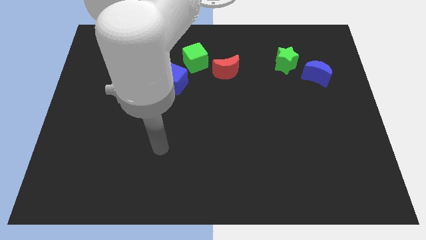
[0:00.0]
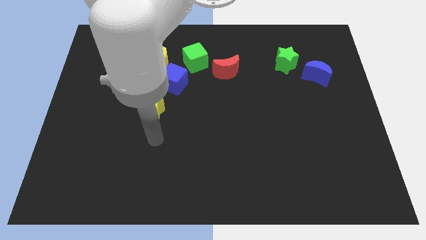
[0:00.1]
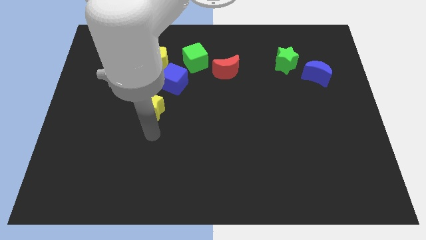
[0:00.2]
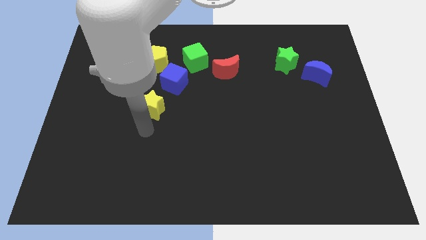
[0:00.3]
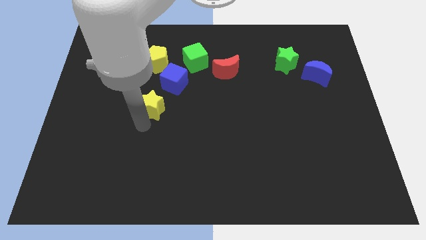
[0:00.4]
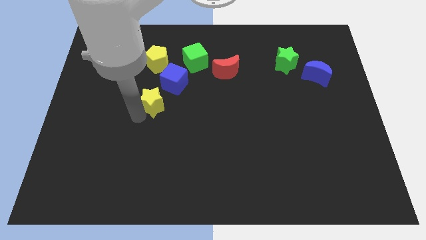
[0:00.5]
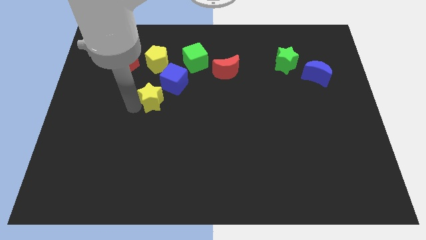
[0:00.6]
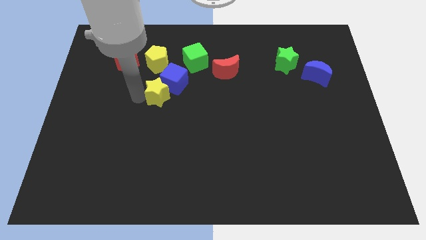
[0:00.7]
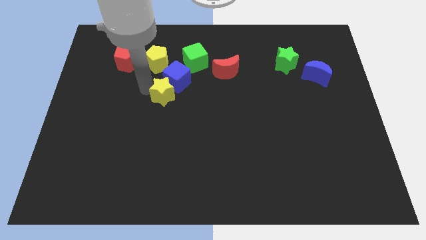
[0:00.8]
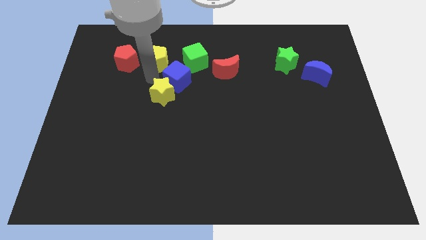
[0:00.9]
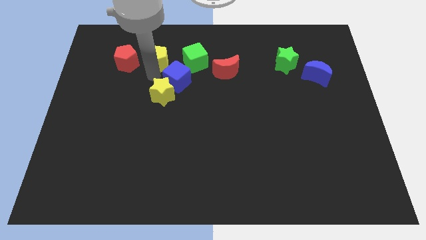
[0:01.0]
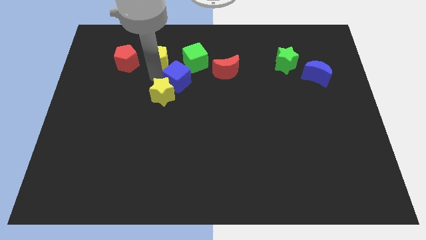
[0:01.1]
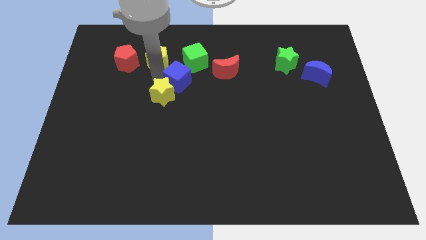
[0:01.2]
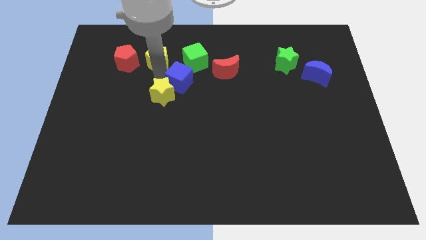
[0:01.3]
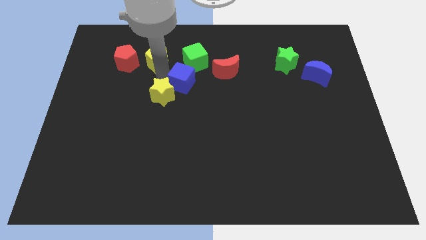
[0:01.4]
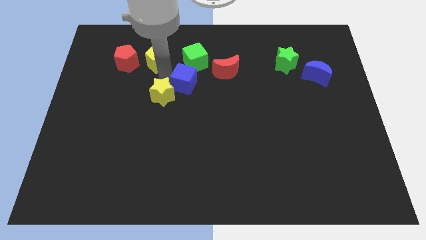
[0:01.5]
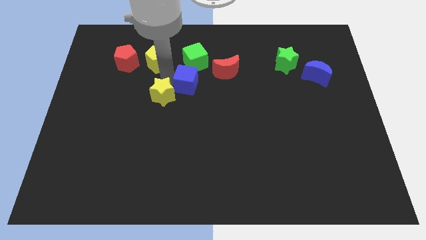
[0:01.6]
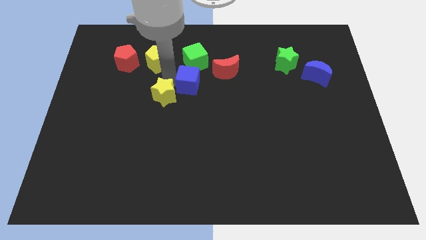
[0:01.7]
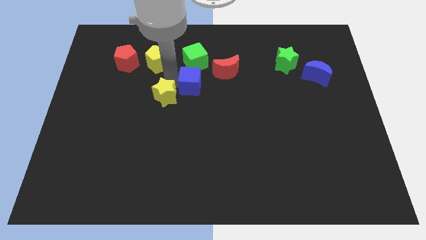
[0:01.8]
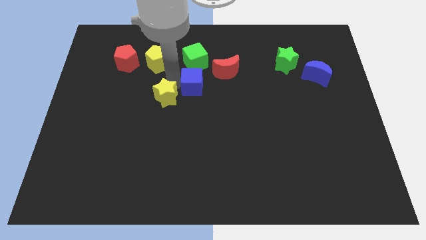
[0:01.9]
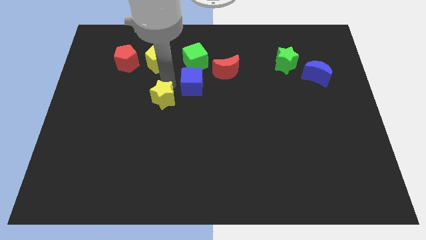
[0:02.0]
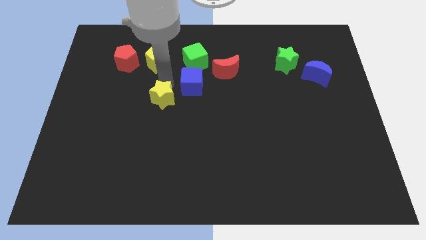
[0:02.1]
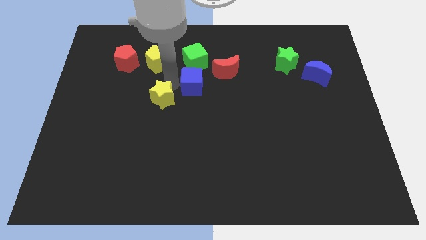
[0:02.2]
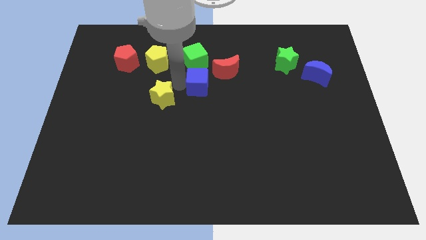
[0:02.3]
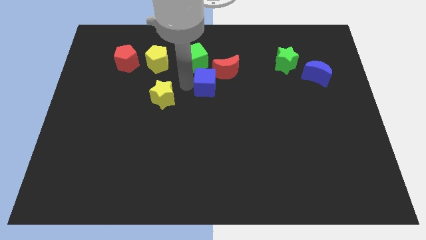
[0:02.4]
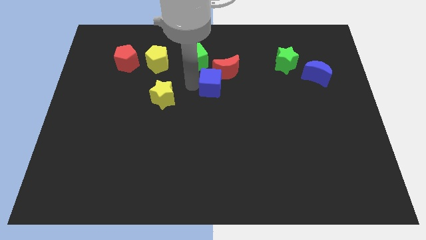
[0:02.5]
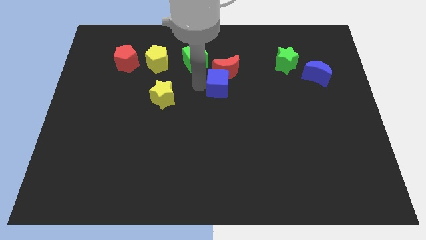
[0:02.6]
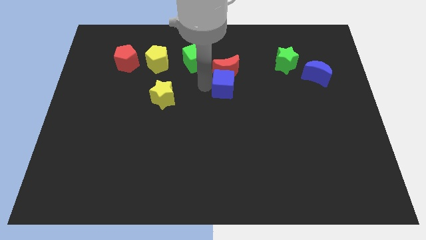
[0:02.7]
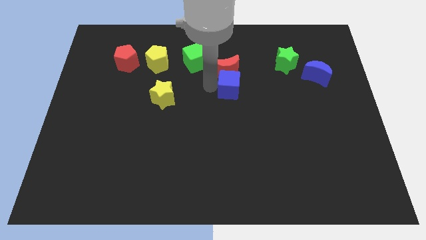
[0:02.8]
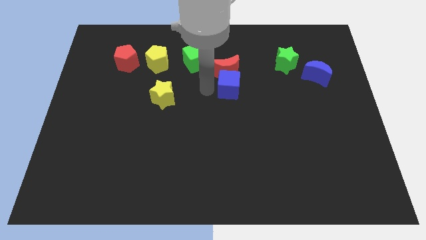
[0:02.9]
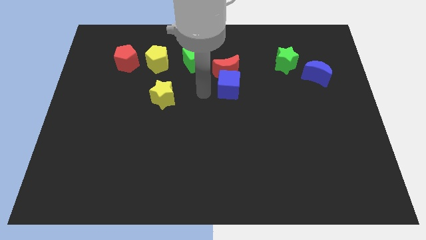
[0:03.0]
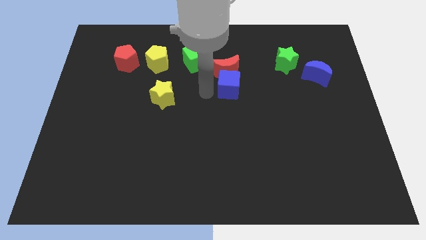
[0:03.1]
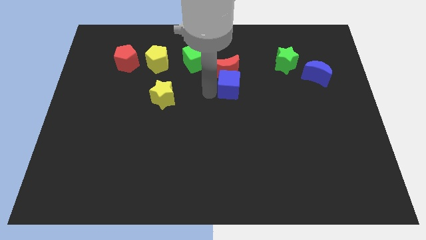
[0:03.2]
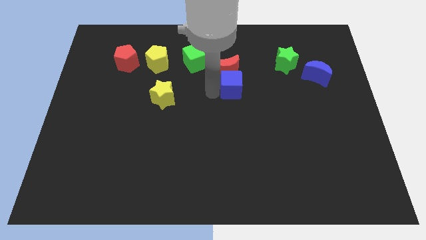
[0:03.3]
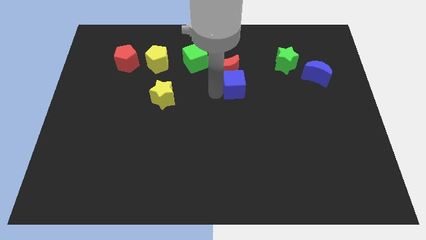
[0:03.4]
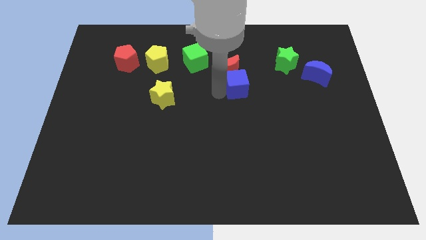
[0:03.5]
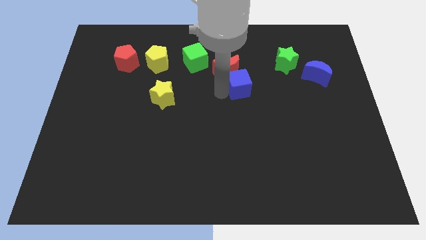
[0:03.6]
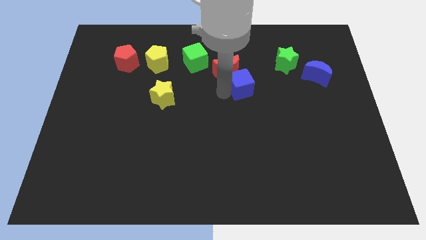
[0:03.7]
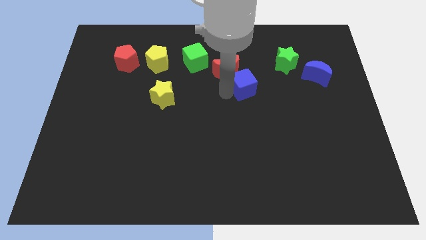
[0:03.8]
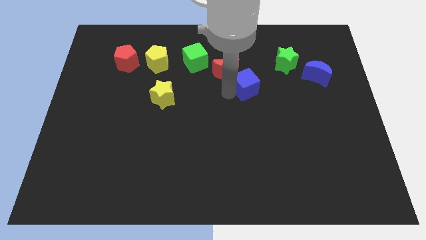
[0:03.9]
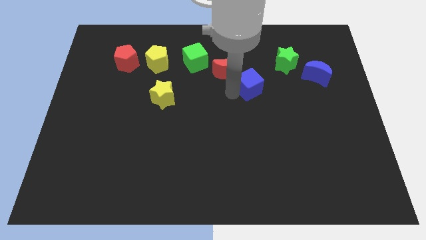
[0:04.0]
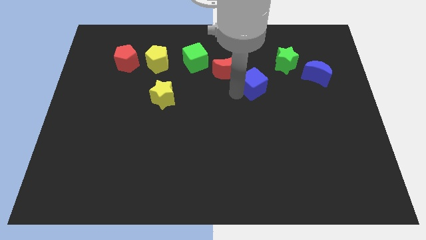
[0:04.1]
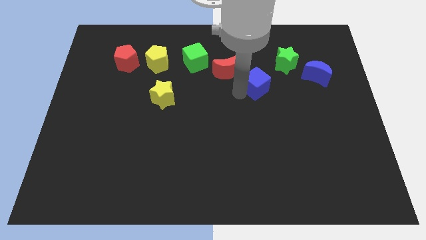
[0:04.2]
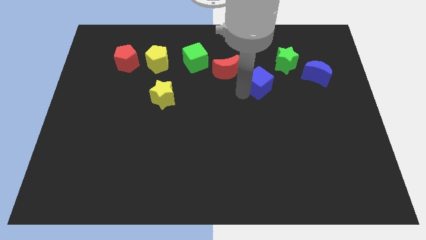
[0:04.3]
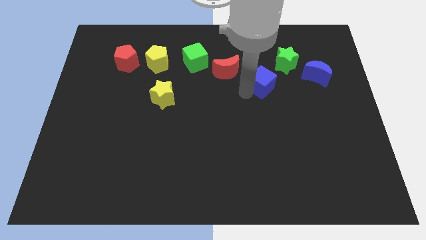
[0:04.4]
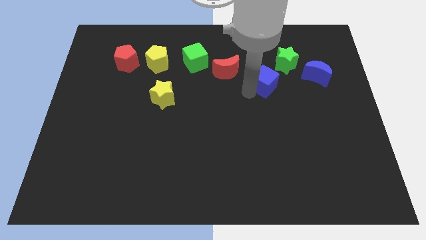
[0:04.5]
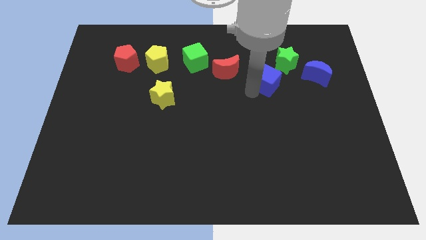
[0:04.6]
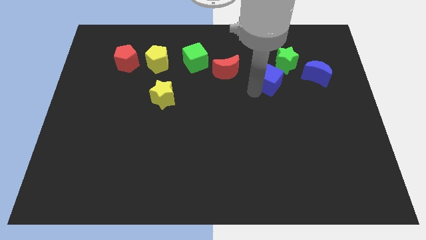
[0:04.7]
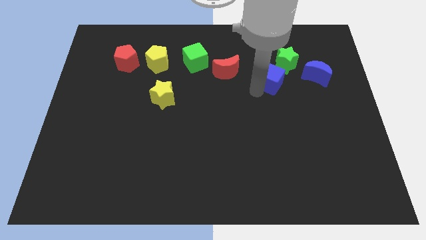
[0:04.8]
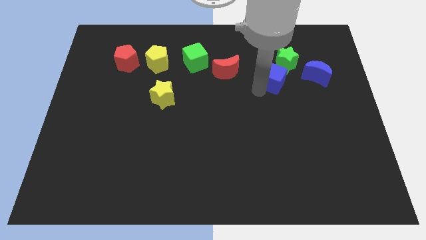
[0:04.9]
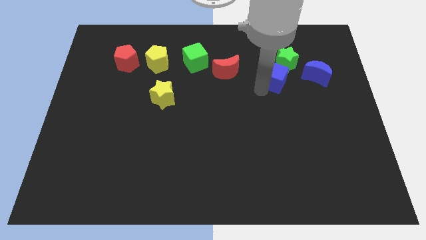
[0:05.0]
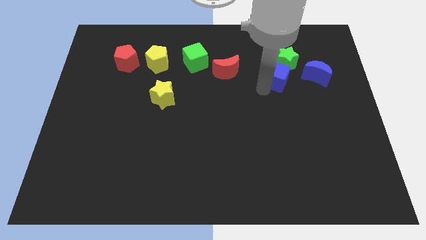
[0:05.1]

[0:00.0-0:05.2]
put the blue cube next to the green star

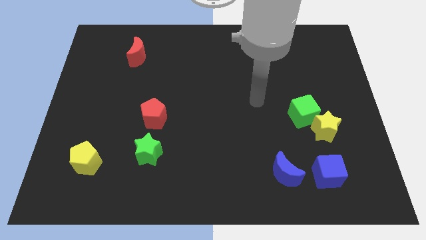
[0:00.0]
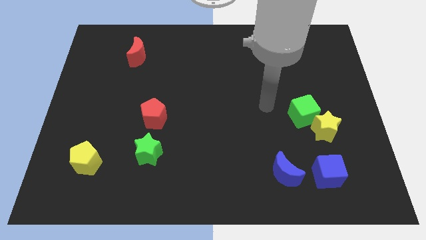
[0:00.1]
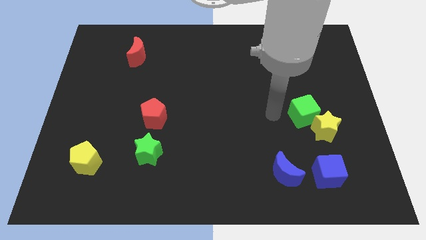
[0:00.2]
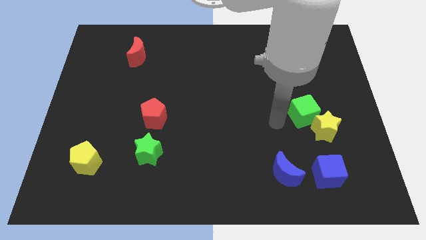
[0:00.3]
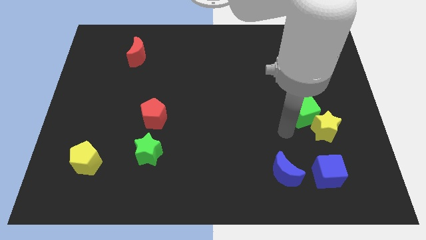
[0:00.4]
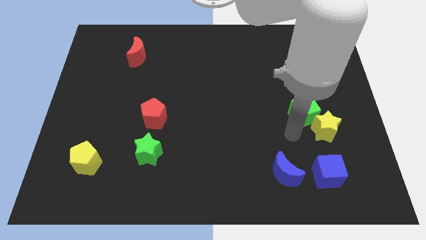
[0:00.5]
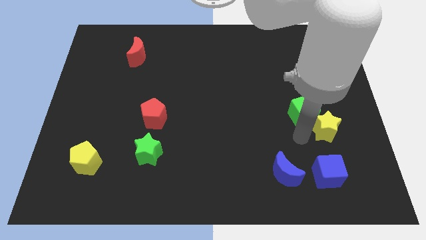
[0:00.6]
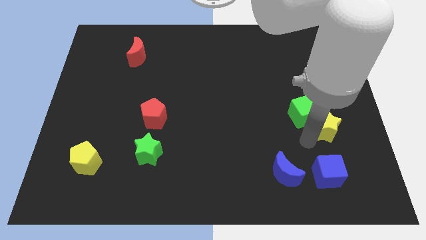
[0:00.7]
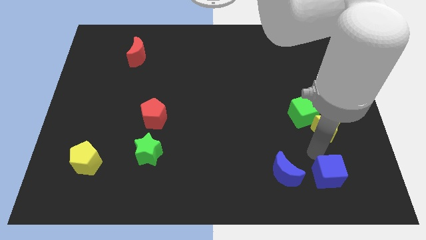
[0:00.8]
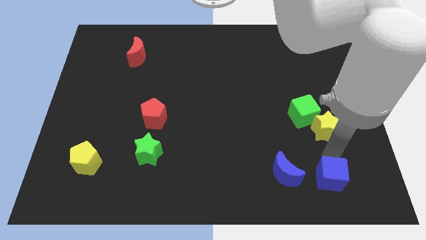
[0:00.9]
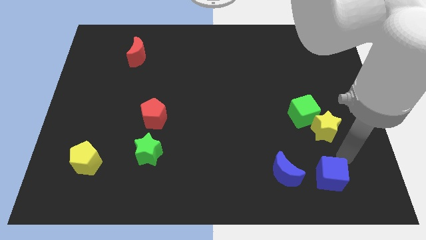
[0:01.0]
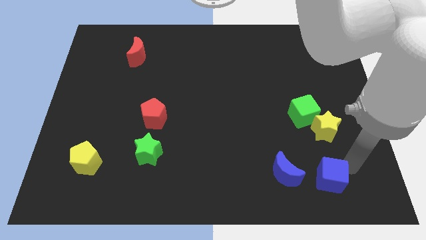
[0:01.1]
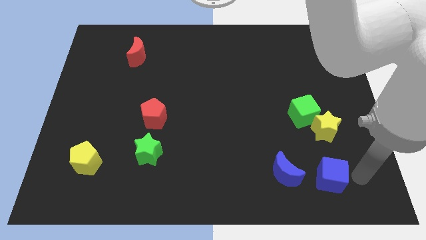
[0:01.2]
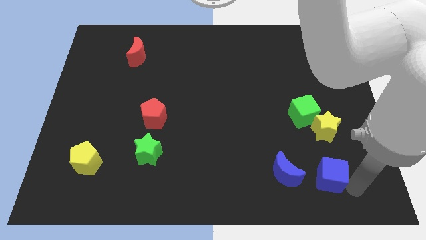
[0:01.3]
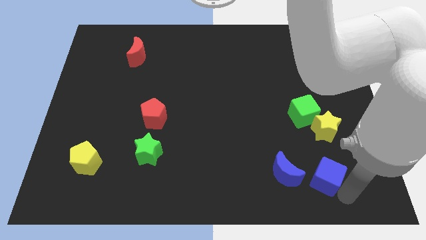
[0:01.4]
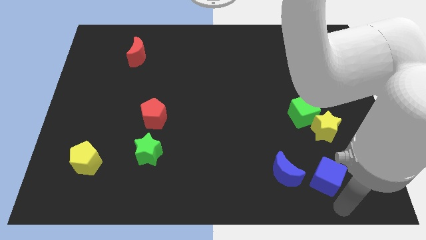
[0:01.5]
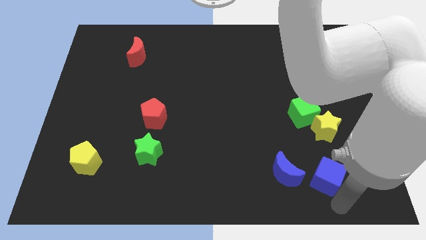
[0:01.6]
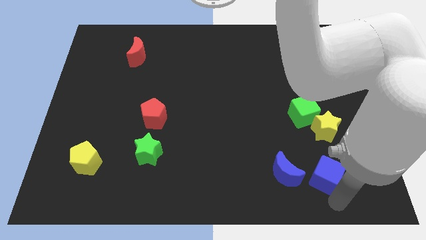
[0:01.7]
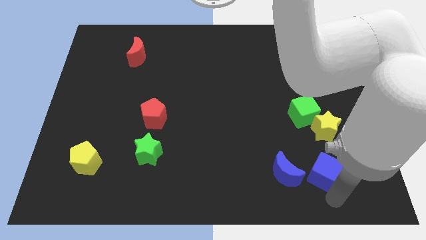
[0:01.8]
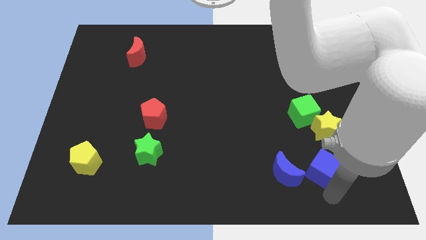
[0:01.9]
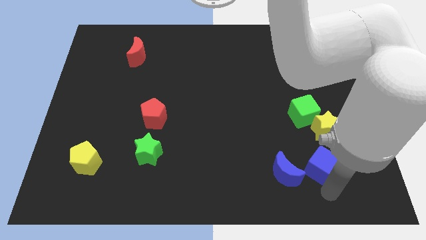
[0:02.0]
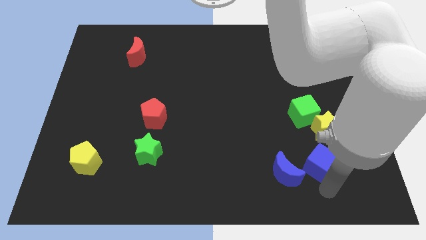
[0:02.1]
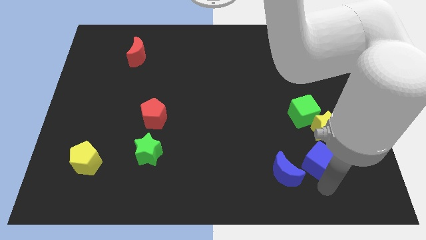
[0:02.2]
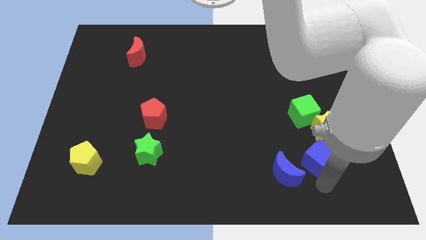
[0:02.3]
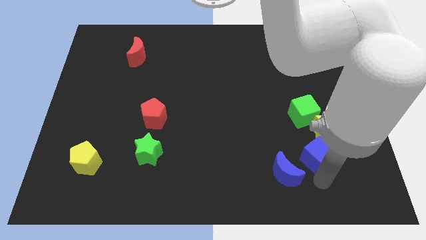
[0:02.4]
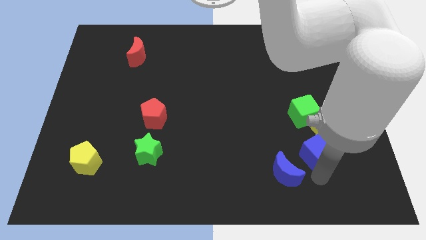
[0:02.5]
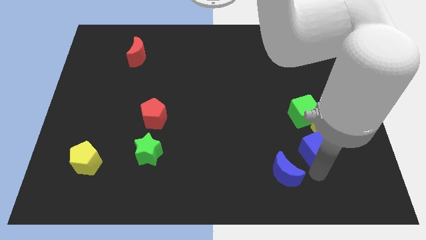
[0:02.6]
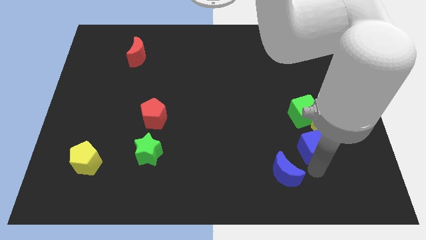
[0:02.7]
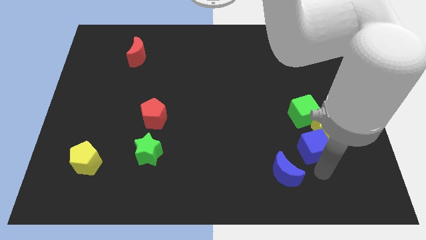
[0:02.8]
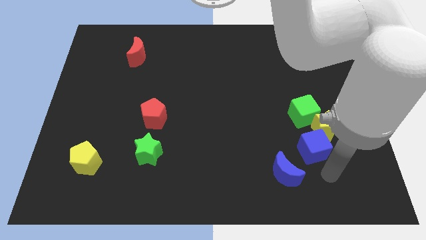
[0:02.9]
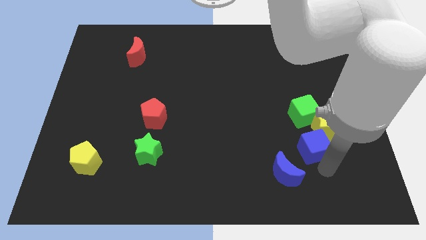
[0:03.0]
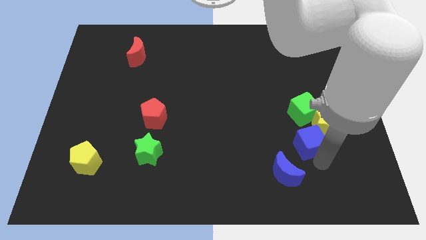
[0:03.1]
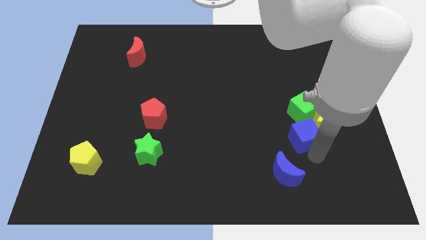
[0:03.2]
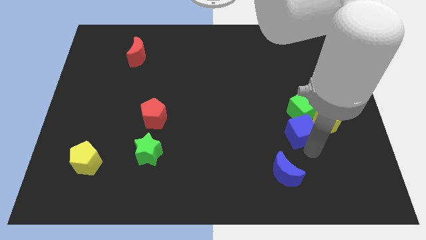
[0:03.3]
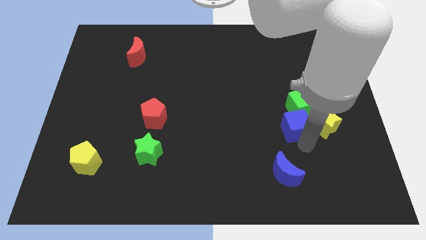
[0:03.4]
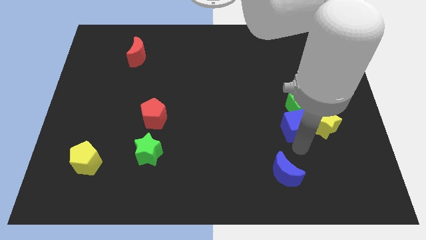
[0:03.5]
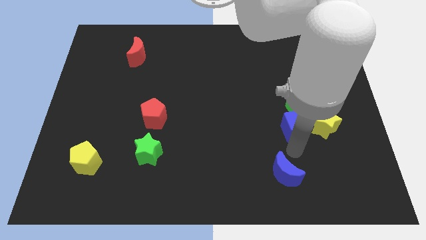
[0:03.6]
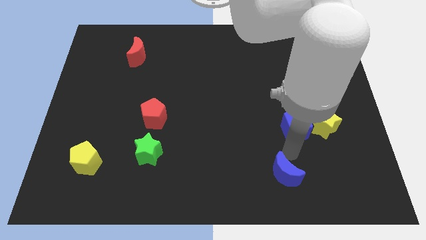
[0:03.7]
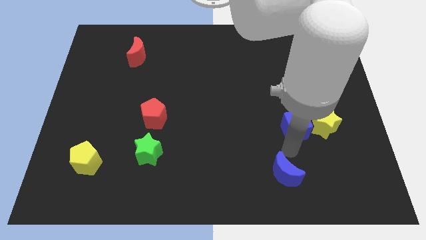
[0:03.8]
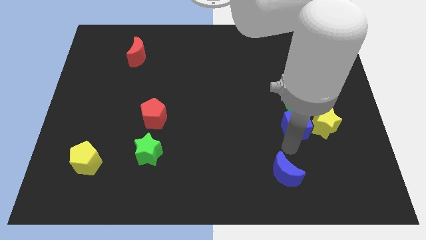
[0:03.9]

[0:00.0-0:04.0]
put the blue cube to the green cube
